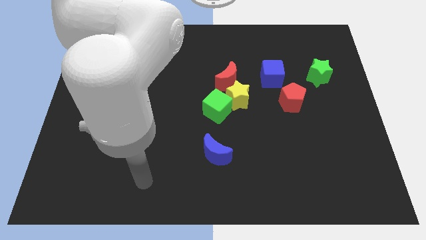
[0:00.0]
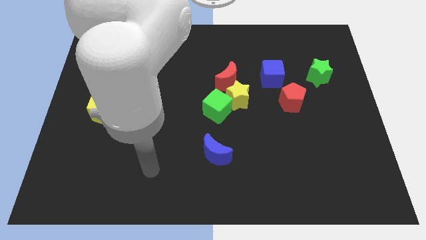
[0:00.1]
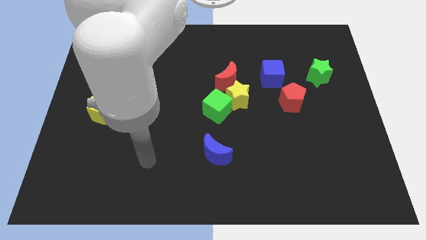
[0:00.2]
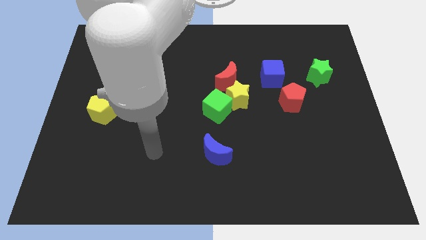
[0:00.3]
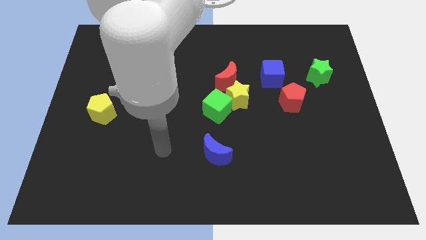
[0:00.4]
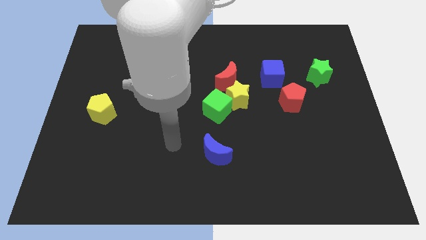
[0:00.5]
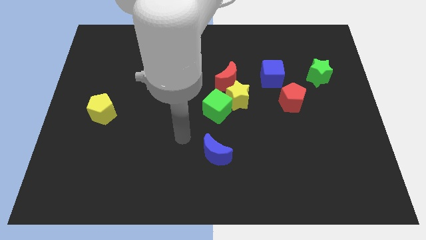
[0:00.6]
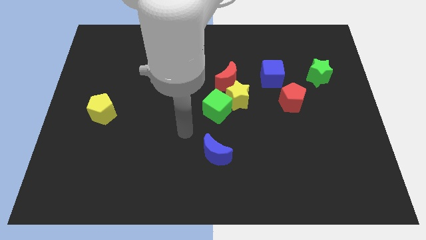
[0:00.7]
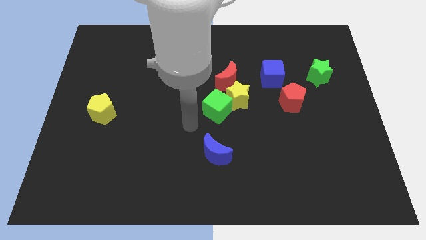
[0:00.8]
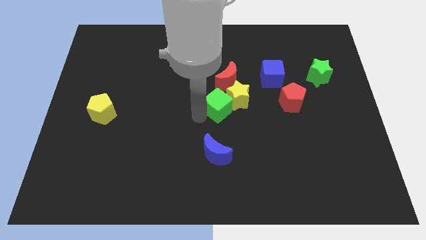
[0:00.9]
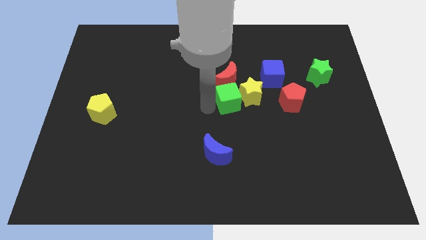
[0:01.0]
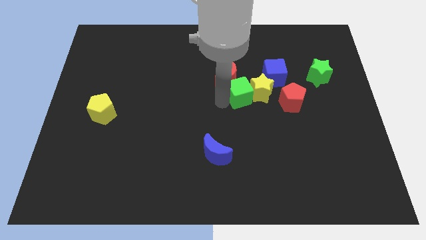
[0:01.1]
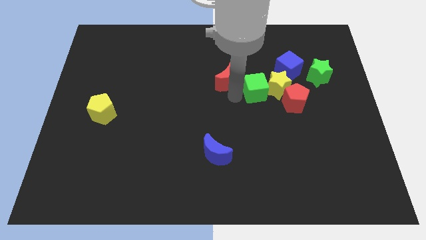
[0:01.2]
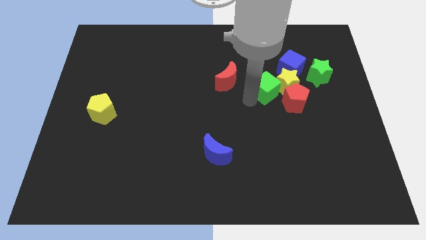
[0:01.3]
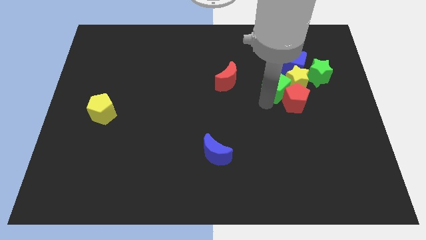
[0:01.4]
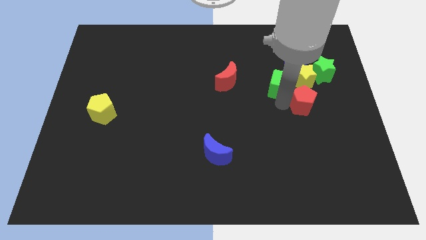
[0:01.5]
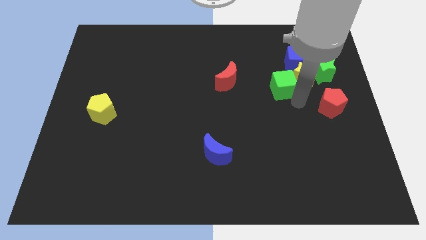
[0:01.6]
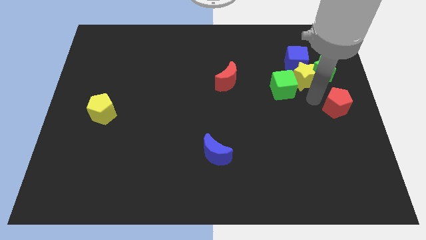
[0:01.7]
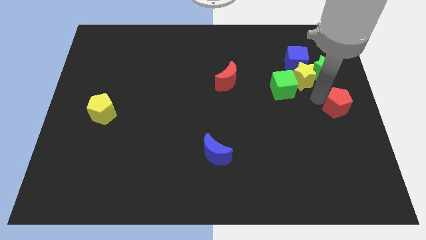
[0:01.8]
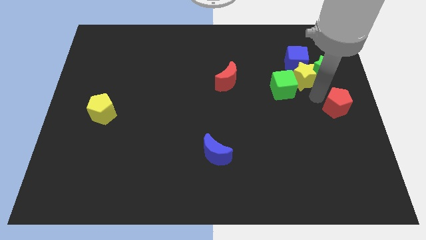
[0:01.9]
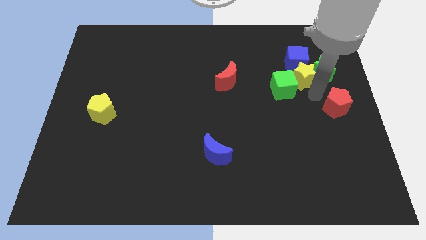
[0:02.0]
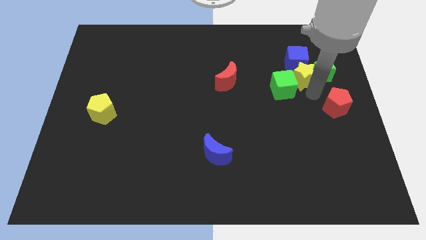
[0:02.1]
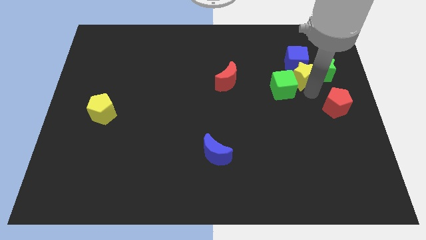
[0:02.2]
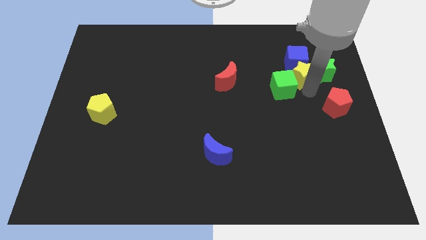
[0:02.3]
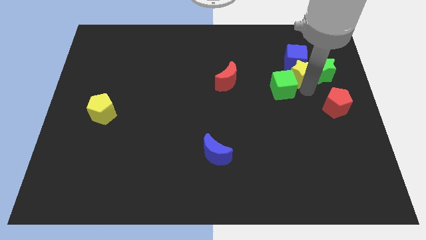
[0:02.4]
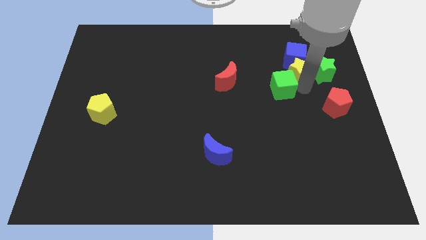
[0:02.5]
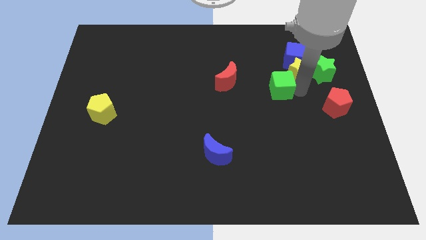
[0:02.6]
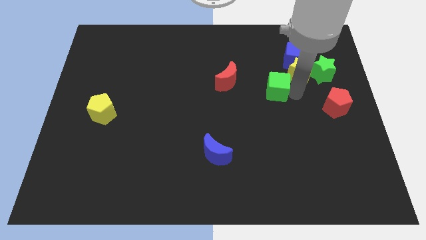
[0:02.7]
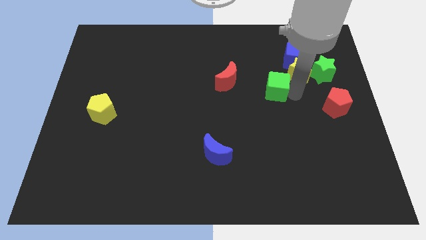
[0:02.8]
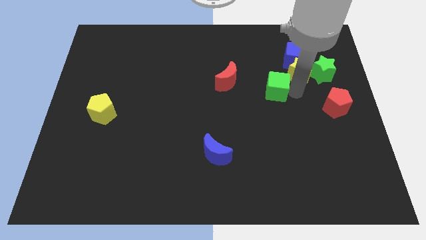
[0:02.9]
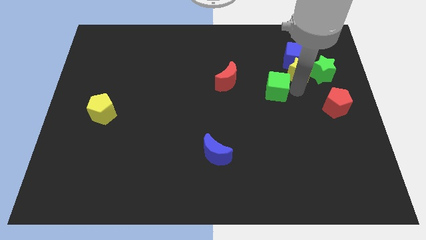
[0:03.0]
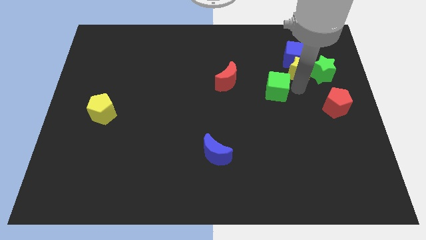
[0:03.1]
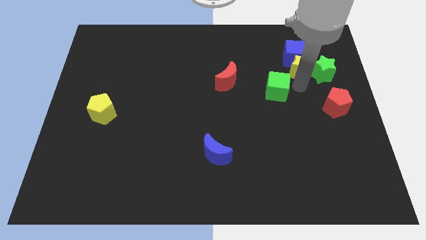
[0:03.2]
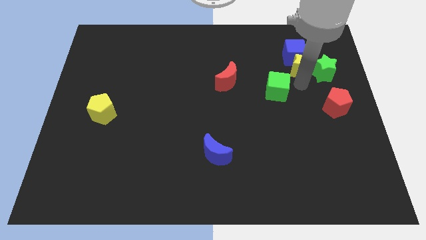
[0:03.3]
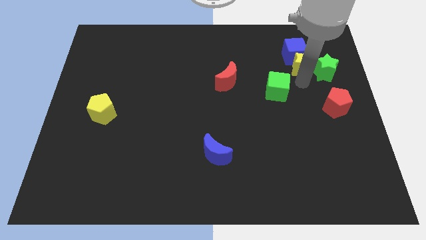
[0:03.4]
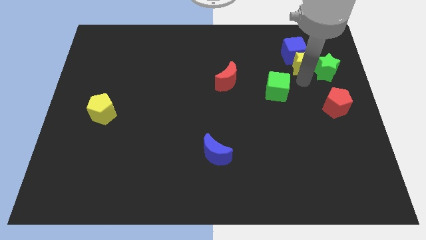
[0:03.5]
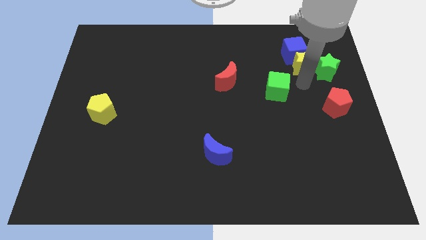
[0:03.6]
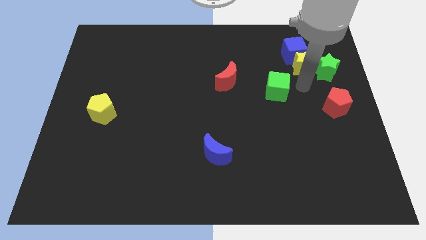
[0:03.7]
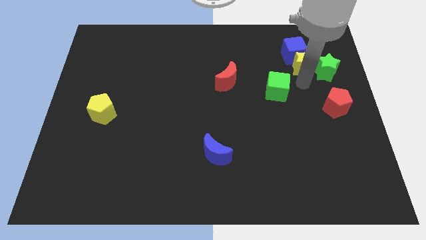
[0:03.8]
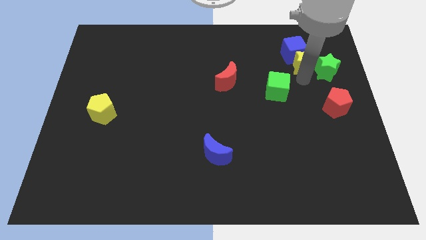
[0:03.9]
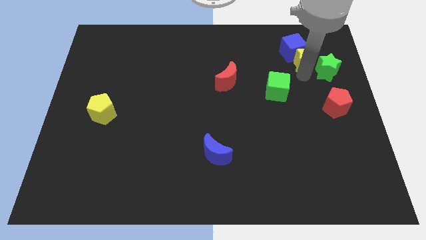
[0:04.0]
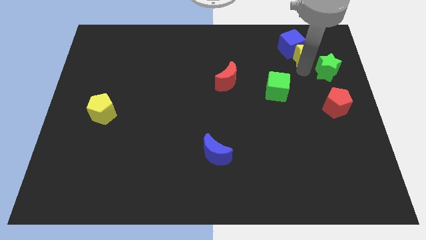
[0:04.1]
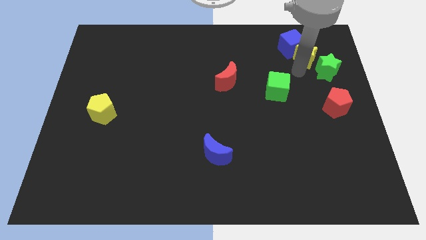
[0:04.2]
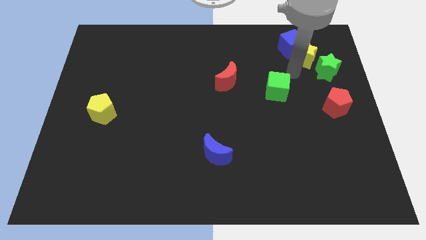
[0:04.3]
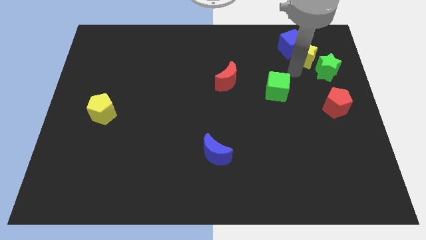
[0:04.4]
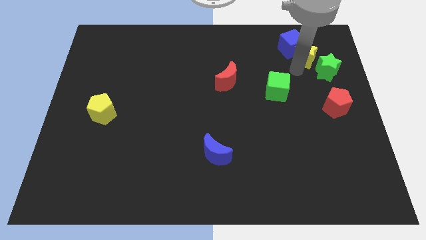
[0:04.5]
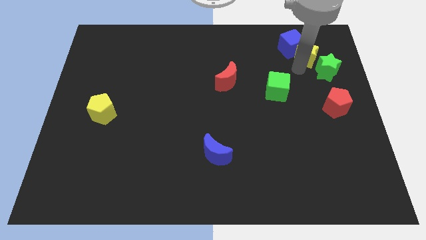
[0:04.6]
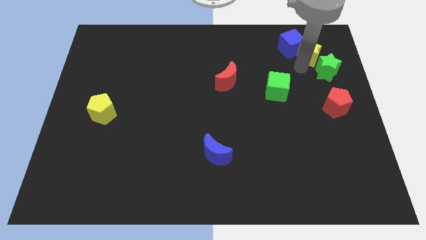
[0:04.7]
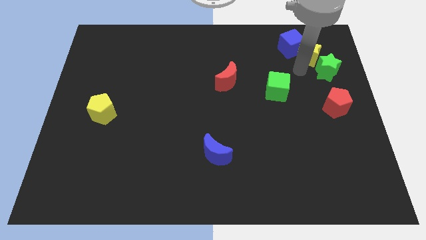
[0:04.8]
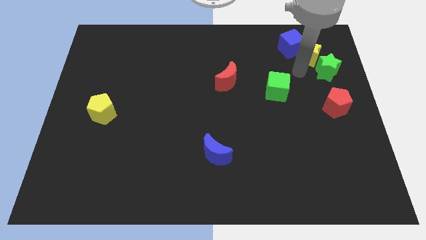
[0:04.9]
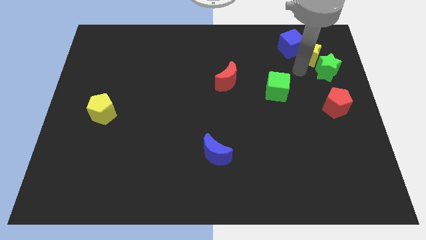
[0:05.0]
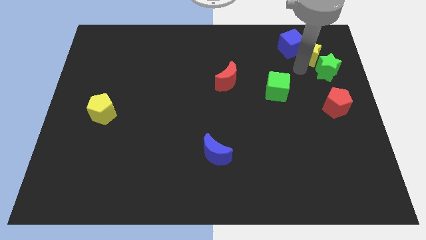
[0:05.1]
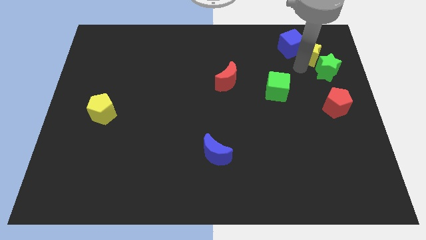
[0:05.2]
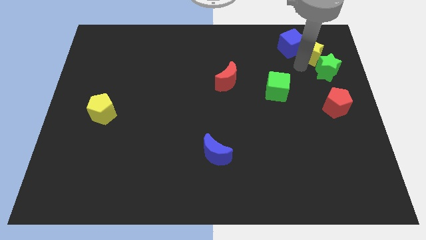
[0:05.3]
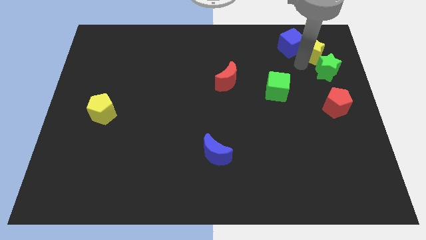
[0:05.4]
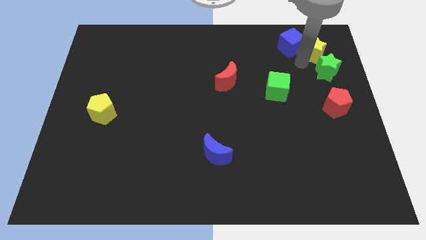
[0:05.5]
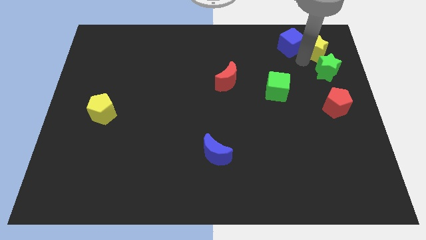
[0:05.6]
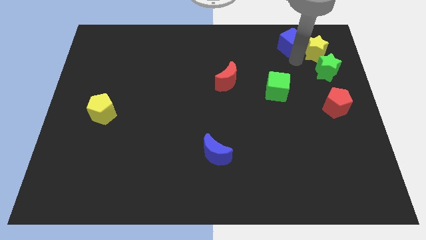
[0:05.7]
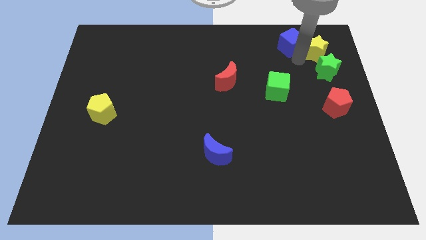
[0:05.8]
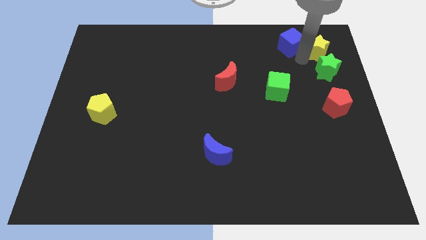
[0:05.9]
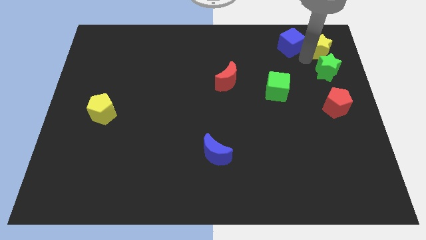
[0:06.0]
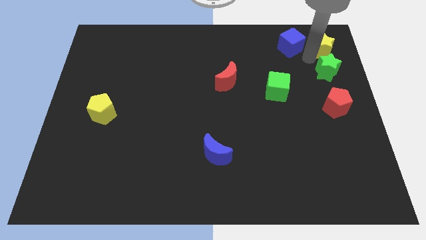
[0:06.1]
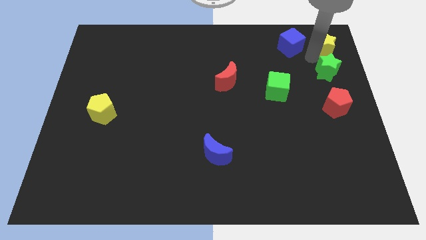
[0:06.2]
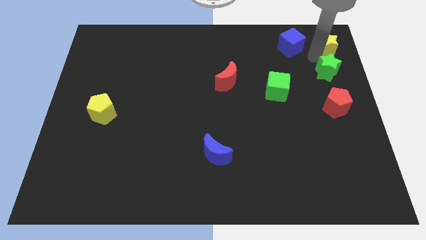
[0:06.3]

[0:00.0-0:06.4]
slide the yellow star to the top right
